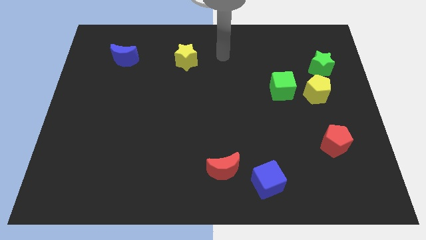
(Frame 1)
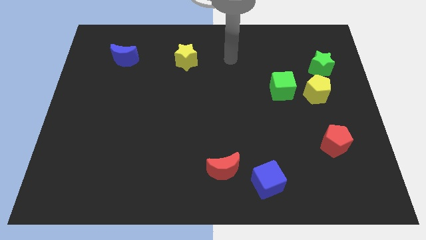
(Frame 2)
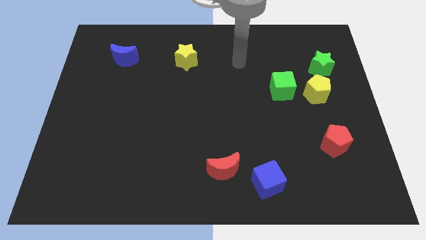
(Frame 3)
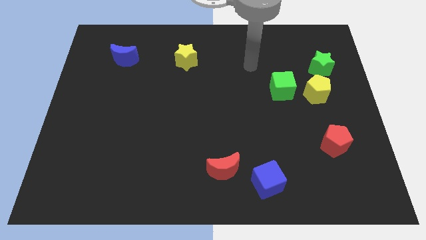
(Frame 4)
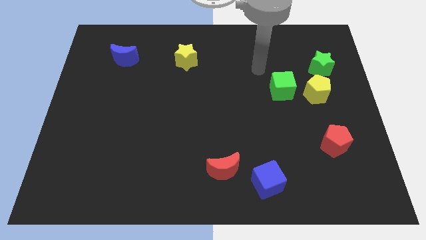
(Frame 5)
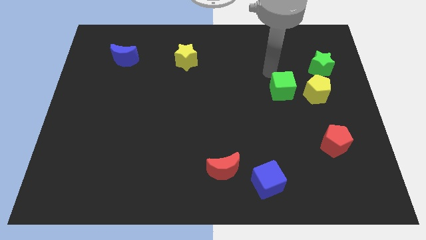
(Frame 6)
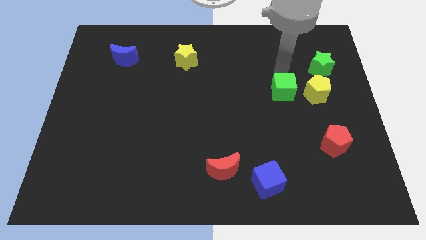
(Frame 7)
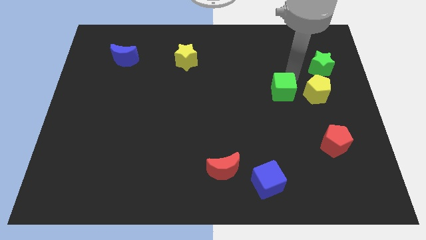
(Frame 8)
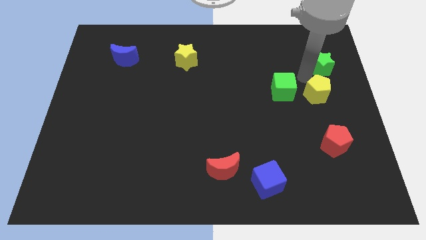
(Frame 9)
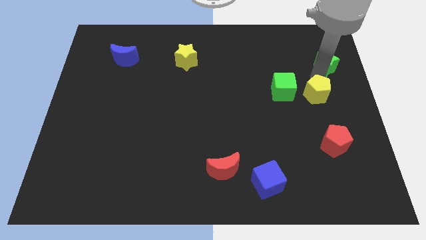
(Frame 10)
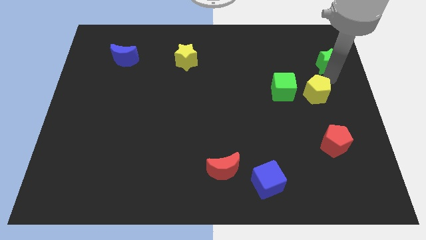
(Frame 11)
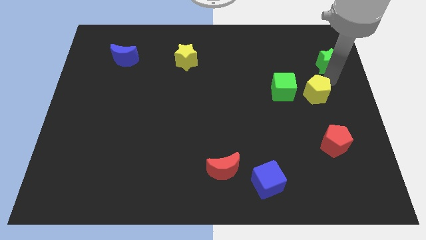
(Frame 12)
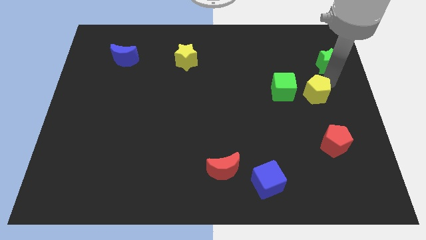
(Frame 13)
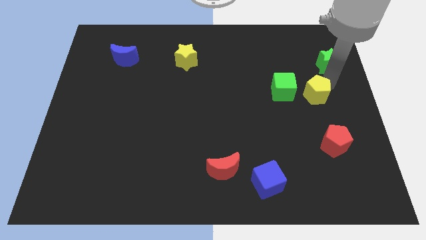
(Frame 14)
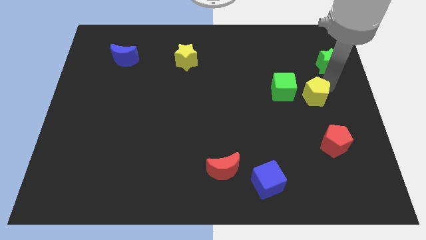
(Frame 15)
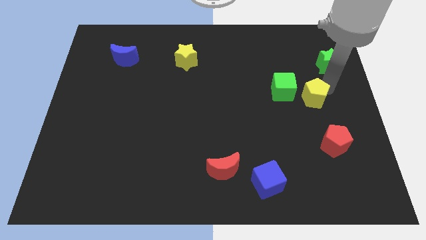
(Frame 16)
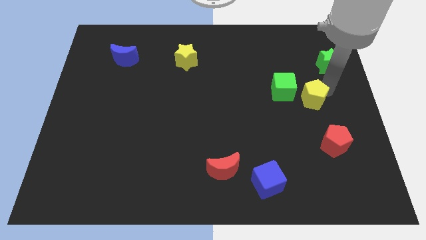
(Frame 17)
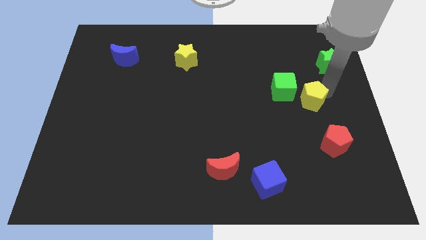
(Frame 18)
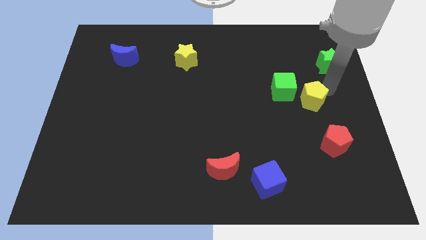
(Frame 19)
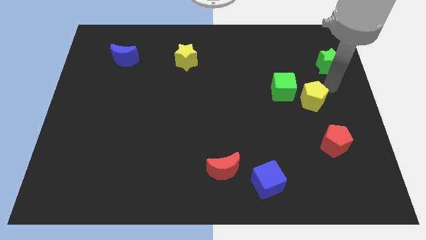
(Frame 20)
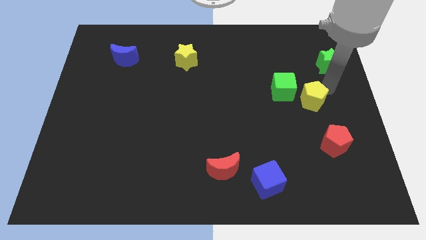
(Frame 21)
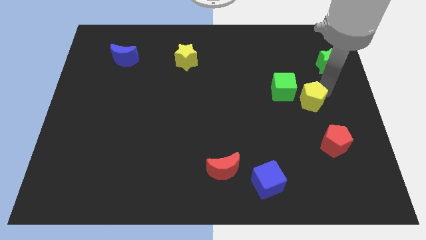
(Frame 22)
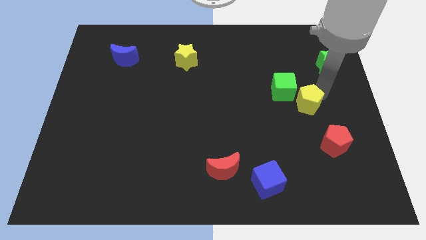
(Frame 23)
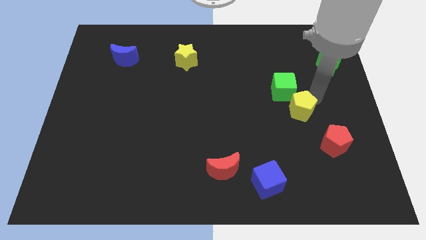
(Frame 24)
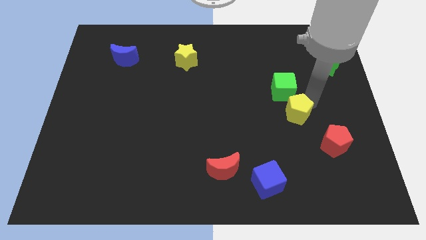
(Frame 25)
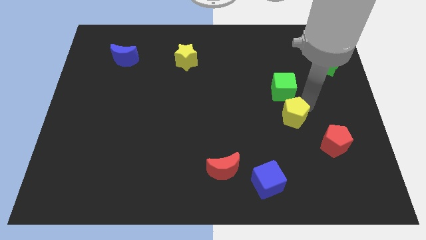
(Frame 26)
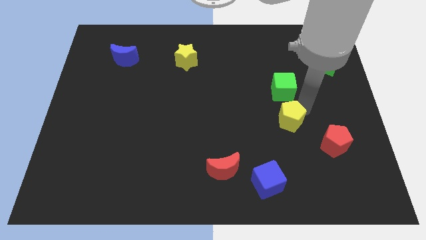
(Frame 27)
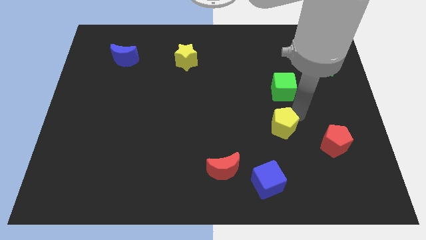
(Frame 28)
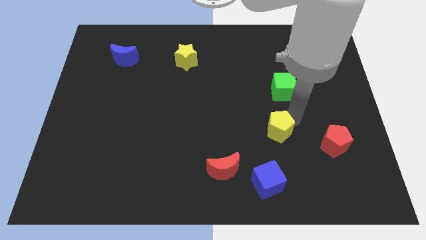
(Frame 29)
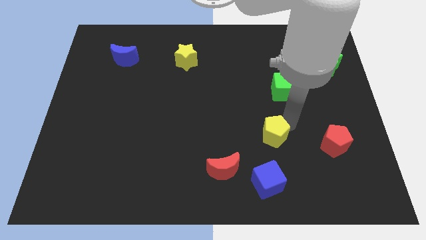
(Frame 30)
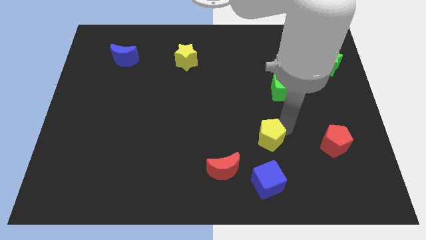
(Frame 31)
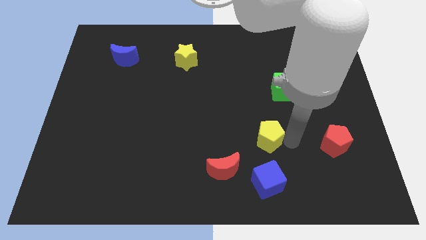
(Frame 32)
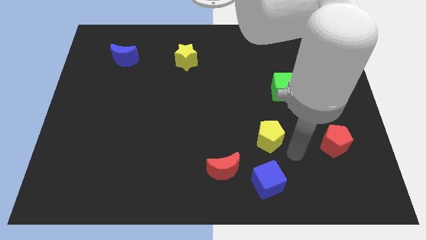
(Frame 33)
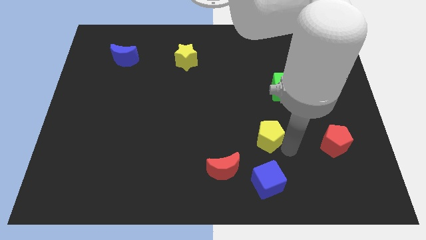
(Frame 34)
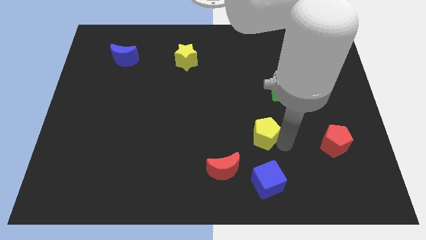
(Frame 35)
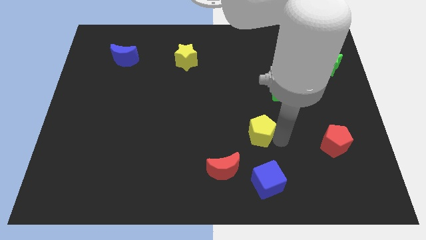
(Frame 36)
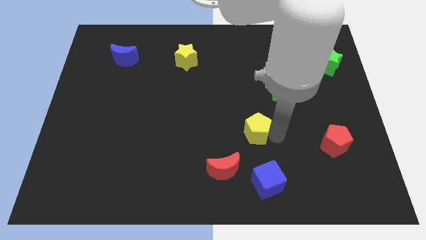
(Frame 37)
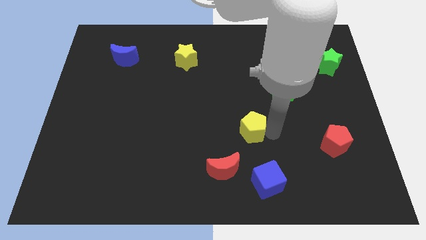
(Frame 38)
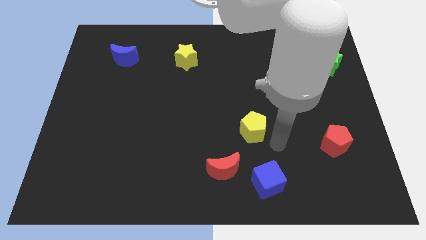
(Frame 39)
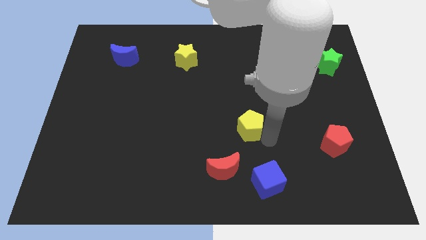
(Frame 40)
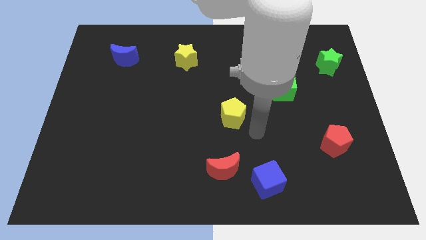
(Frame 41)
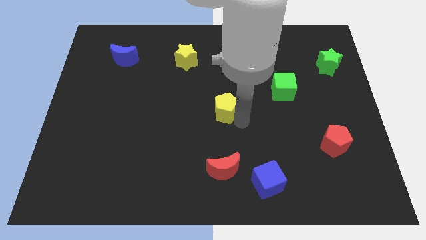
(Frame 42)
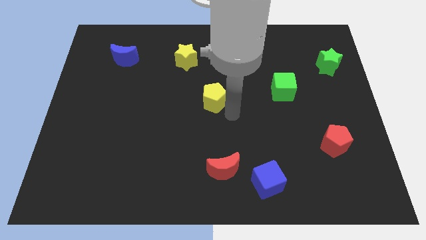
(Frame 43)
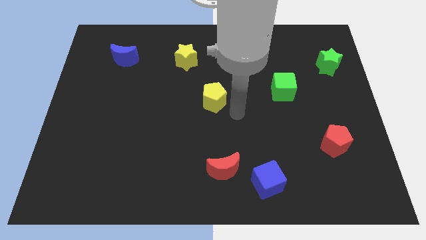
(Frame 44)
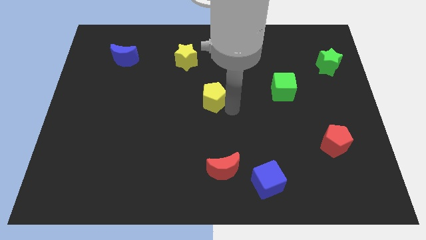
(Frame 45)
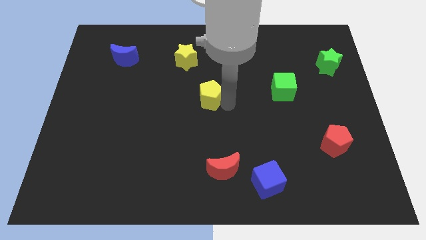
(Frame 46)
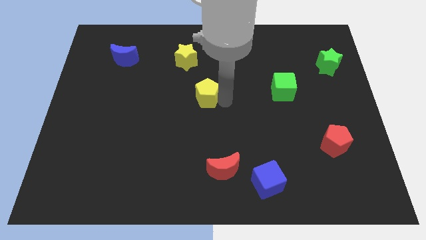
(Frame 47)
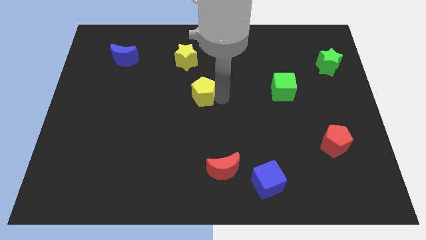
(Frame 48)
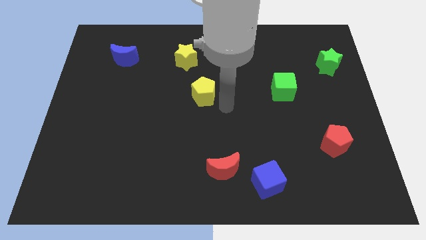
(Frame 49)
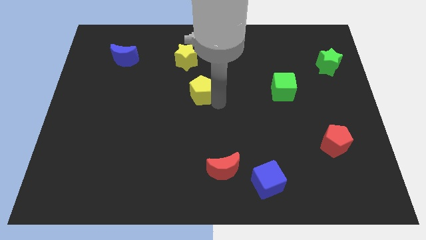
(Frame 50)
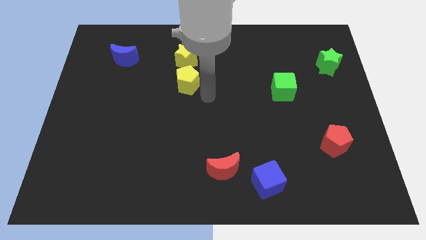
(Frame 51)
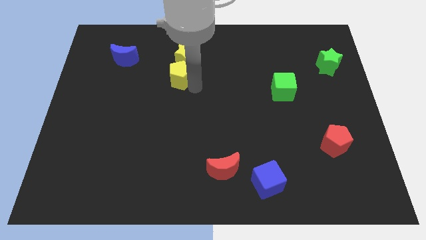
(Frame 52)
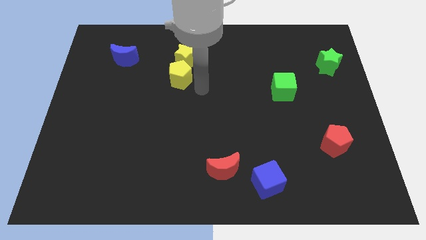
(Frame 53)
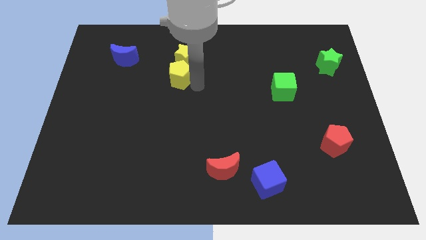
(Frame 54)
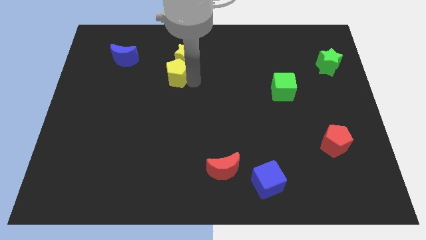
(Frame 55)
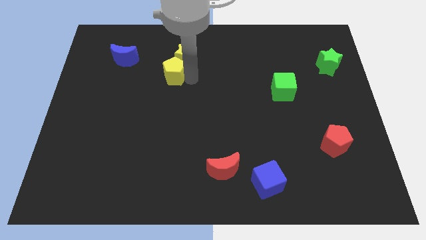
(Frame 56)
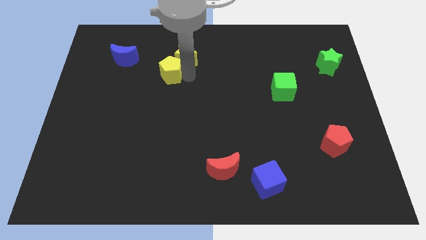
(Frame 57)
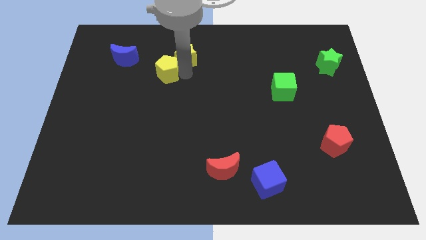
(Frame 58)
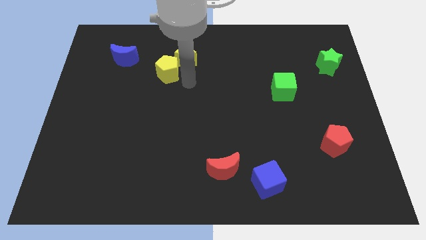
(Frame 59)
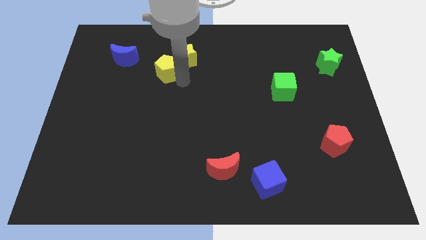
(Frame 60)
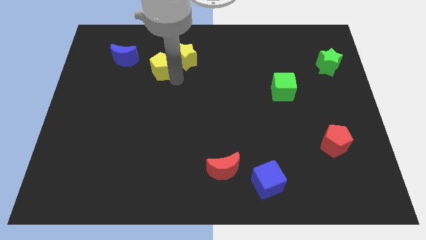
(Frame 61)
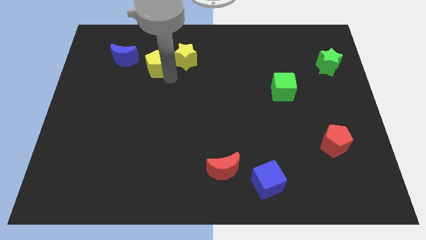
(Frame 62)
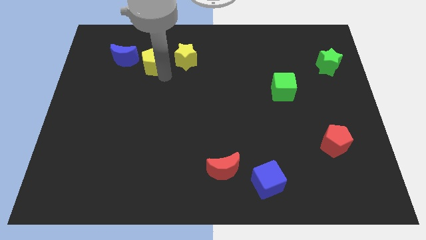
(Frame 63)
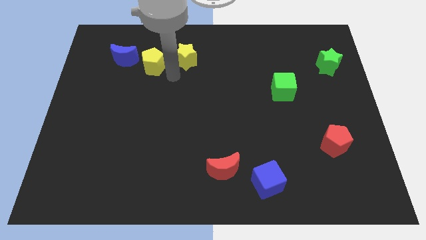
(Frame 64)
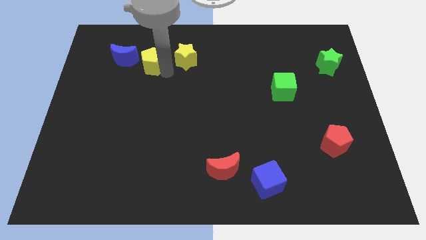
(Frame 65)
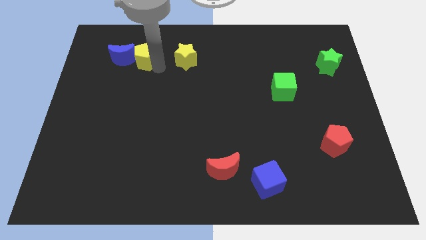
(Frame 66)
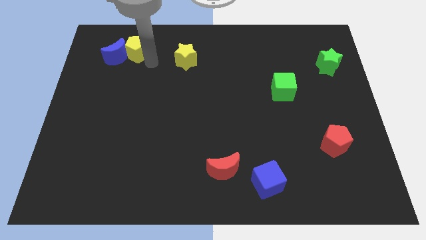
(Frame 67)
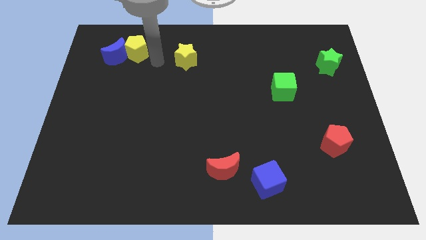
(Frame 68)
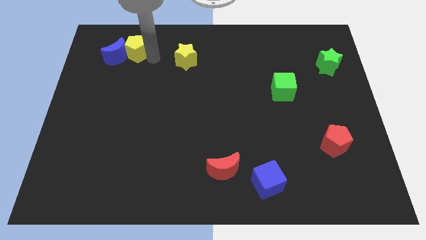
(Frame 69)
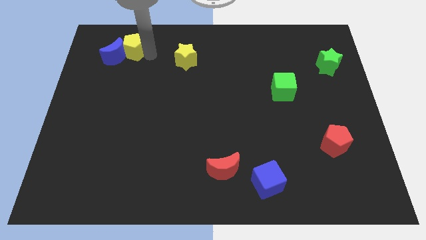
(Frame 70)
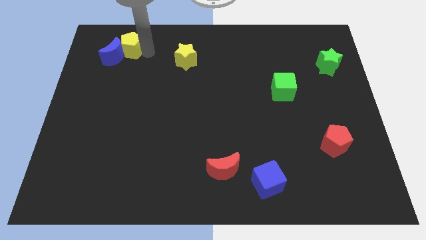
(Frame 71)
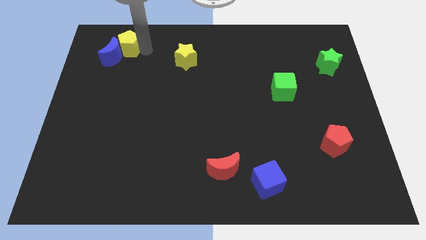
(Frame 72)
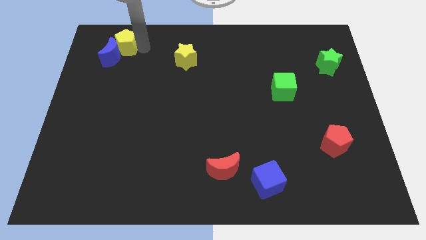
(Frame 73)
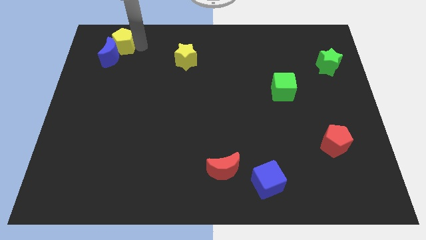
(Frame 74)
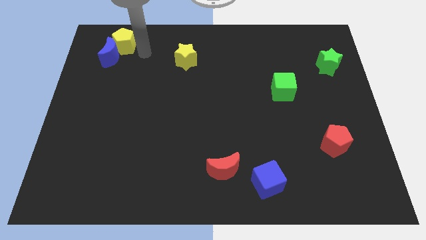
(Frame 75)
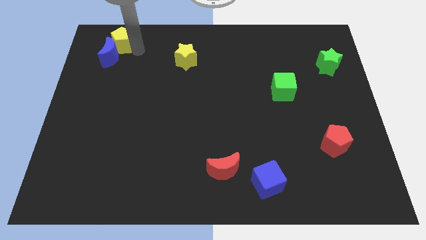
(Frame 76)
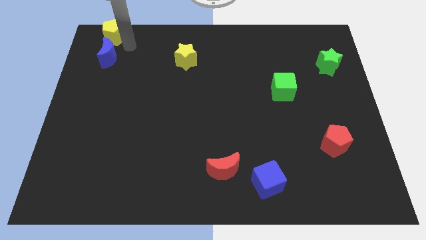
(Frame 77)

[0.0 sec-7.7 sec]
slide the yellow pentagon to the top left
